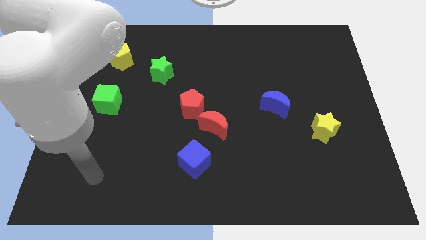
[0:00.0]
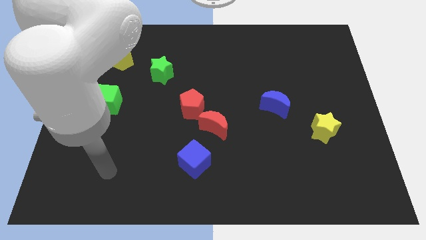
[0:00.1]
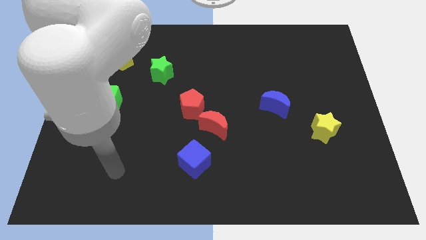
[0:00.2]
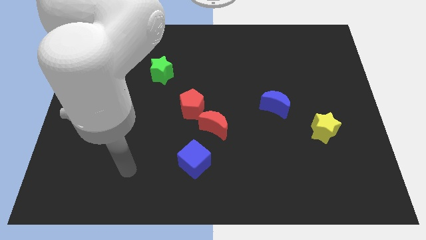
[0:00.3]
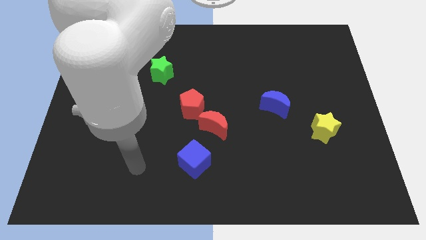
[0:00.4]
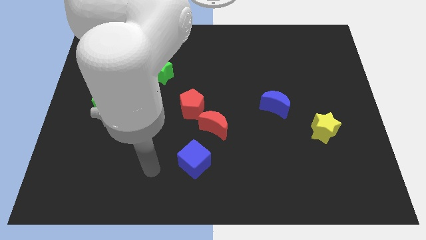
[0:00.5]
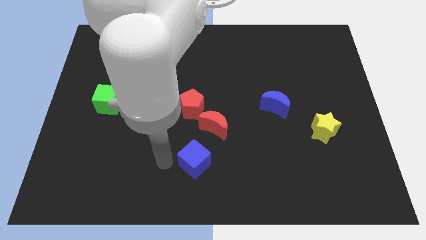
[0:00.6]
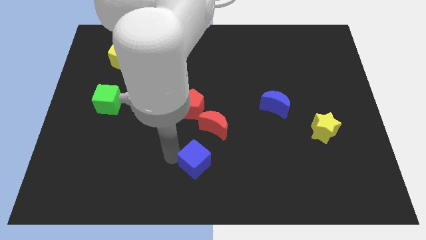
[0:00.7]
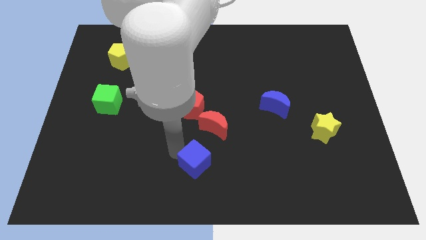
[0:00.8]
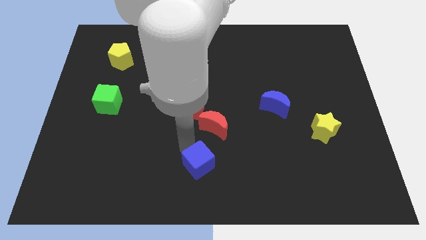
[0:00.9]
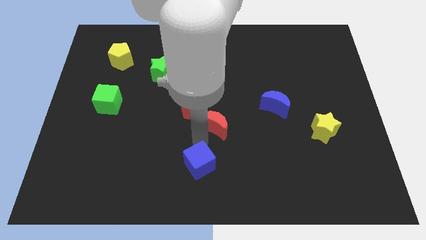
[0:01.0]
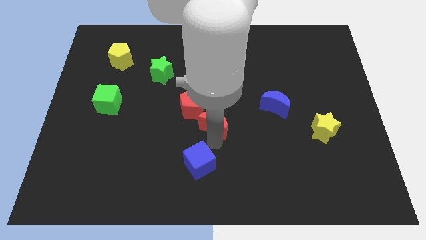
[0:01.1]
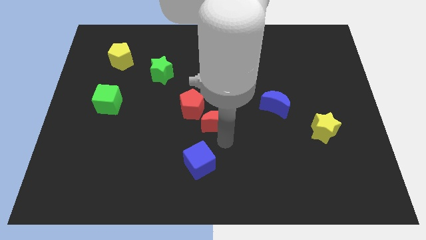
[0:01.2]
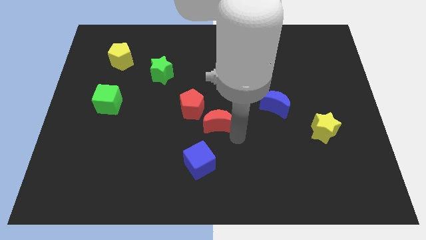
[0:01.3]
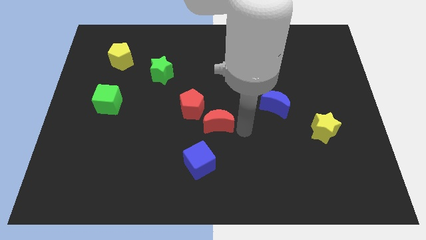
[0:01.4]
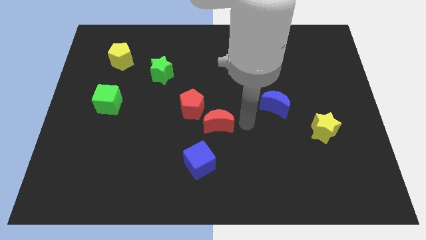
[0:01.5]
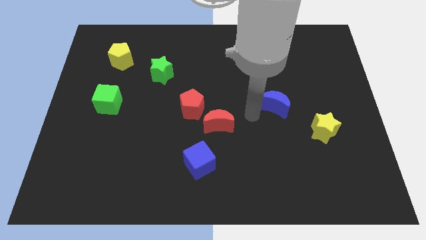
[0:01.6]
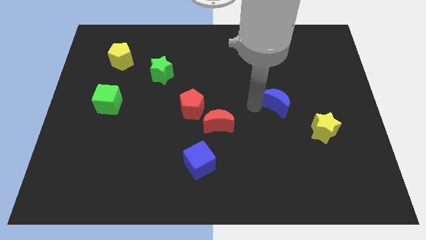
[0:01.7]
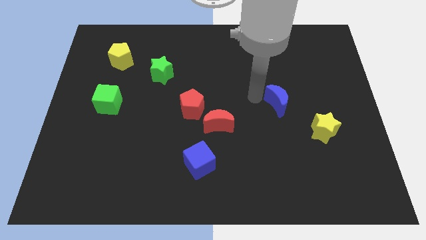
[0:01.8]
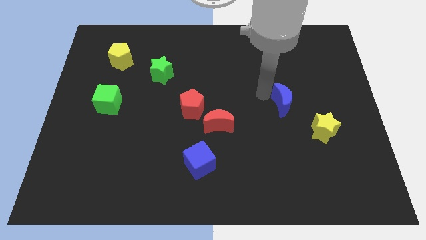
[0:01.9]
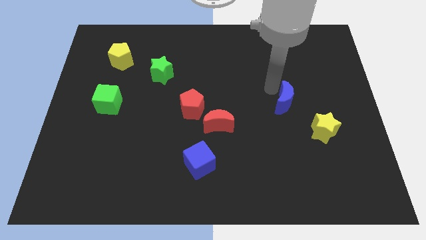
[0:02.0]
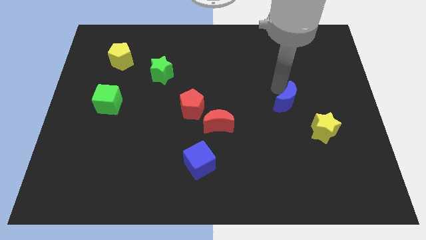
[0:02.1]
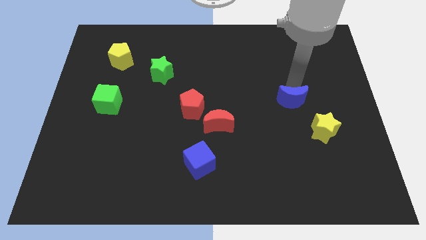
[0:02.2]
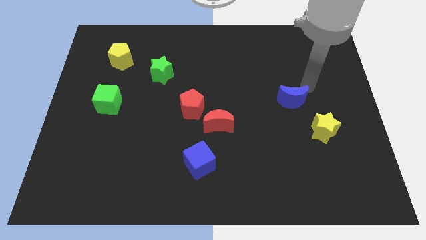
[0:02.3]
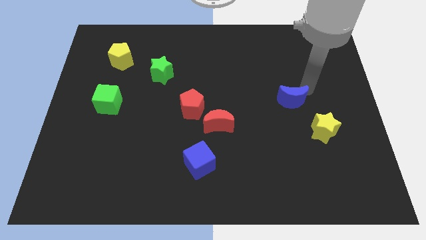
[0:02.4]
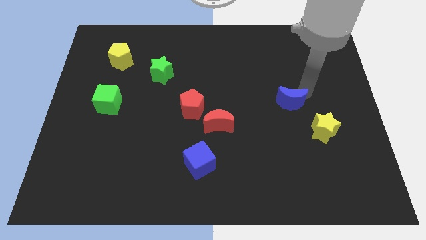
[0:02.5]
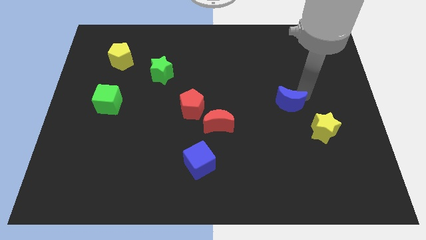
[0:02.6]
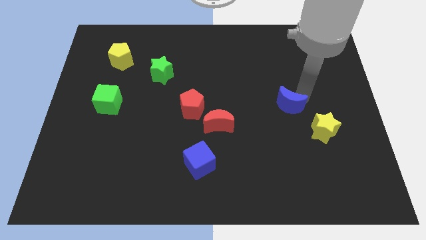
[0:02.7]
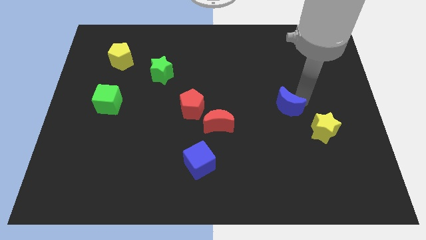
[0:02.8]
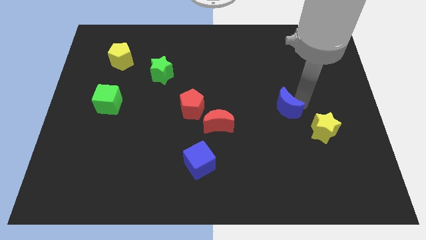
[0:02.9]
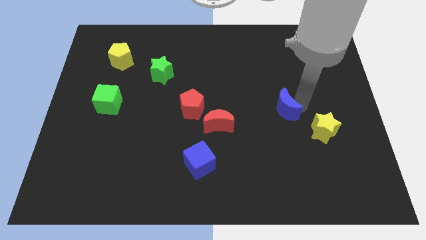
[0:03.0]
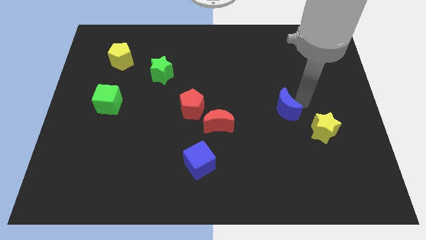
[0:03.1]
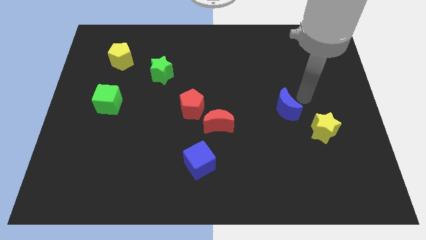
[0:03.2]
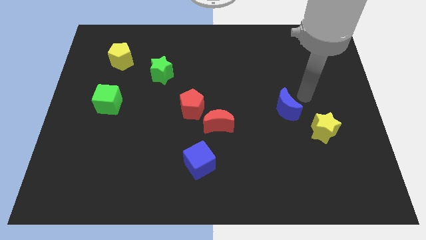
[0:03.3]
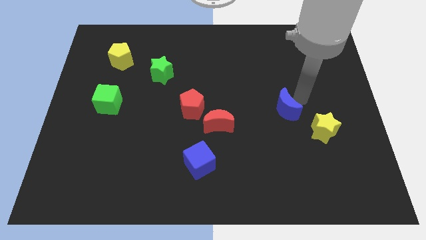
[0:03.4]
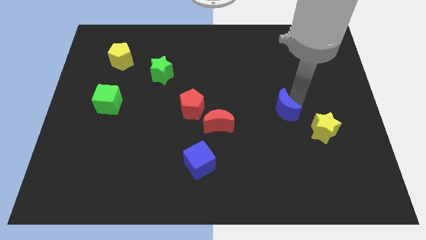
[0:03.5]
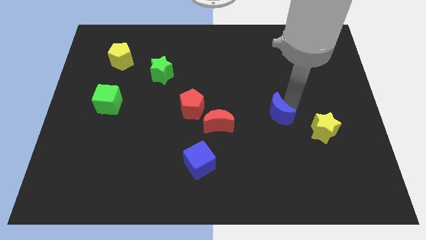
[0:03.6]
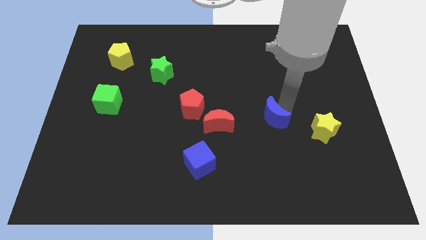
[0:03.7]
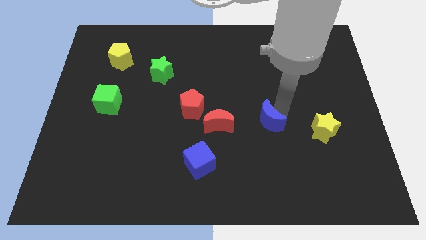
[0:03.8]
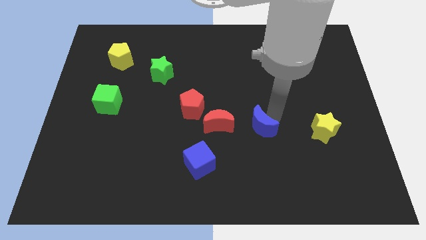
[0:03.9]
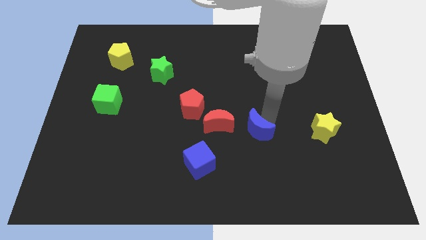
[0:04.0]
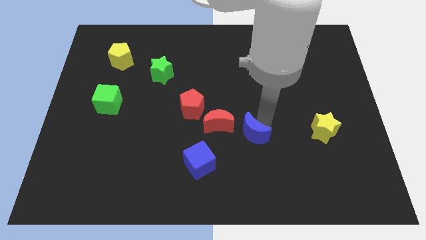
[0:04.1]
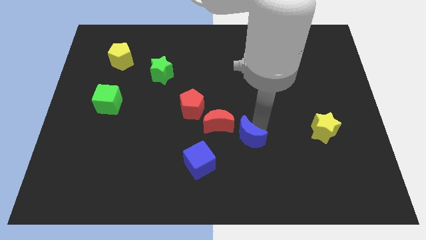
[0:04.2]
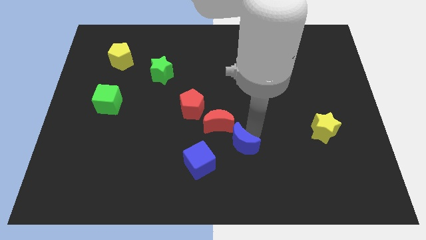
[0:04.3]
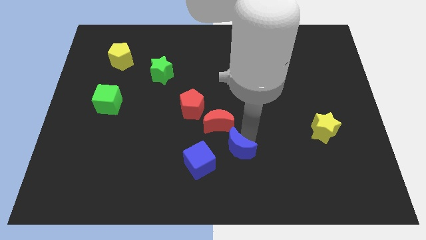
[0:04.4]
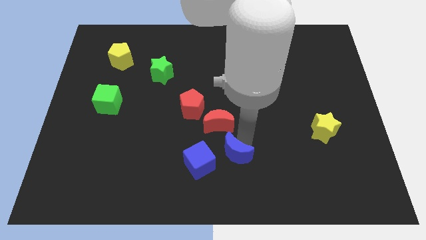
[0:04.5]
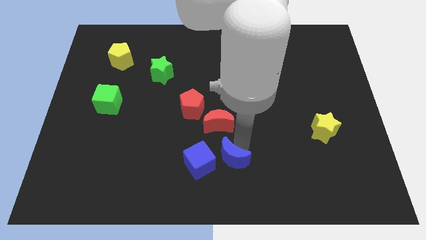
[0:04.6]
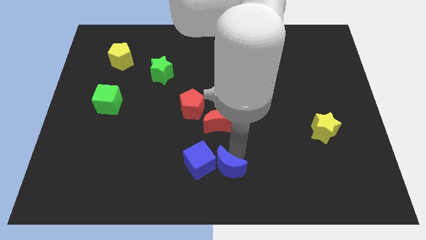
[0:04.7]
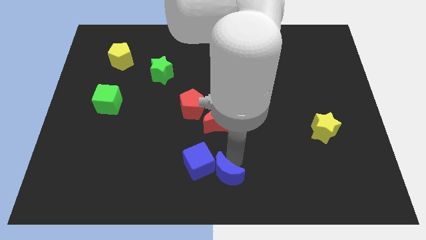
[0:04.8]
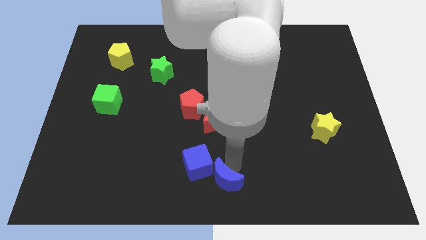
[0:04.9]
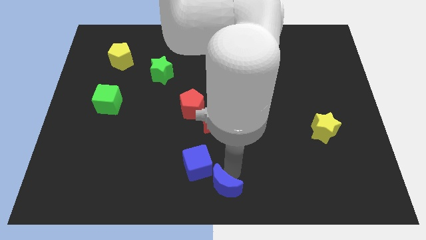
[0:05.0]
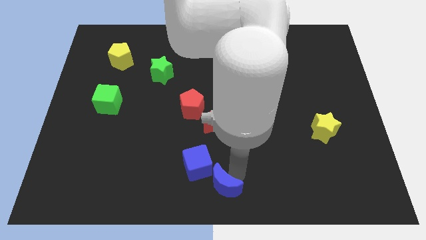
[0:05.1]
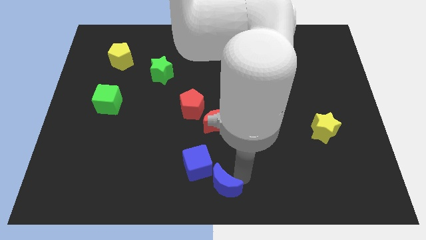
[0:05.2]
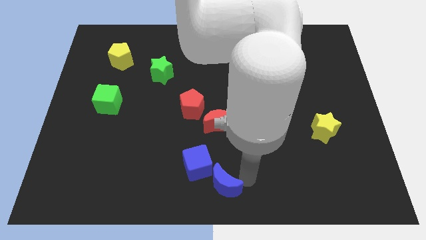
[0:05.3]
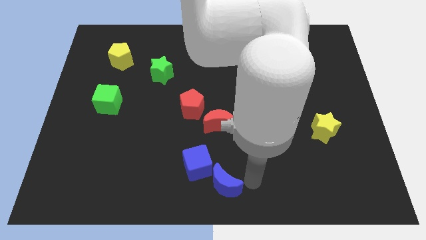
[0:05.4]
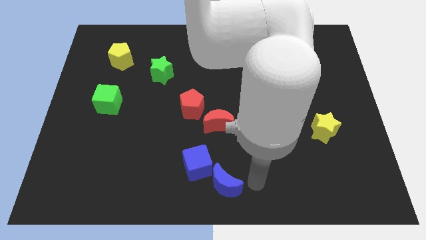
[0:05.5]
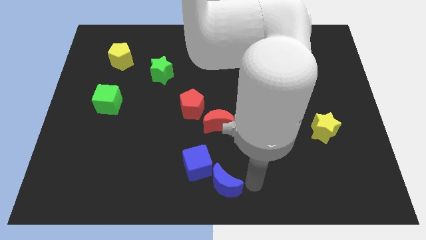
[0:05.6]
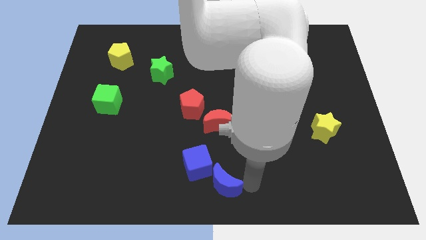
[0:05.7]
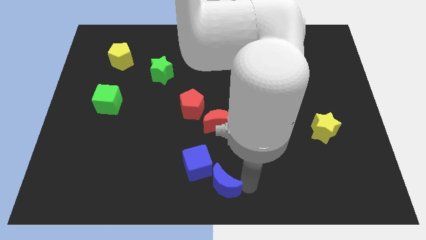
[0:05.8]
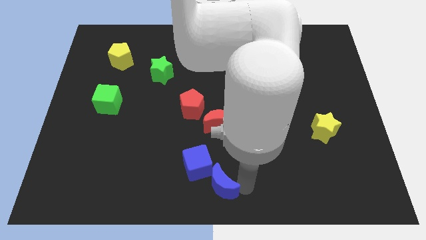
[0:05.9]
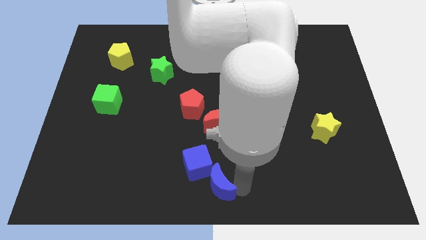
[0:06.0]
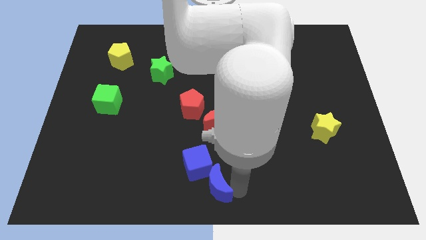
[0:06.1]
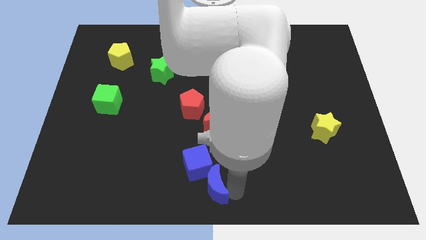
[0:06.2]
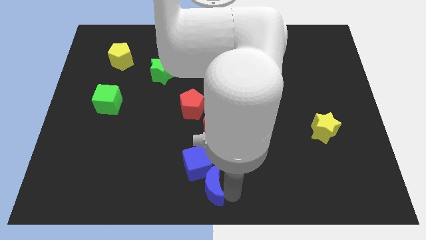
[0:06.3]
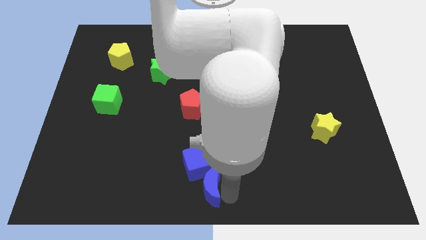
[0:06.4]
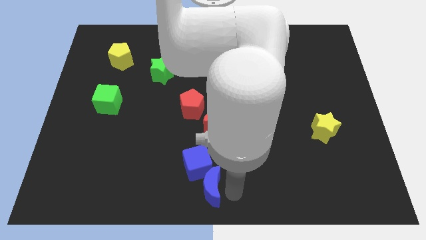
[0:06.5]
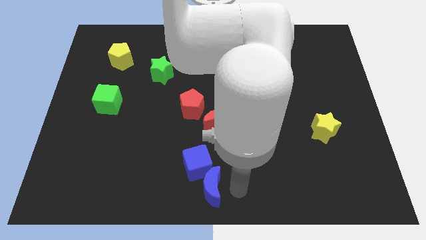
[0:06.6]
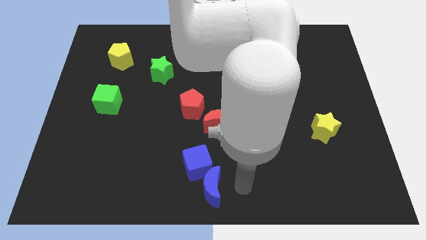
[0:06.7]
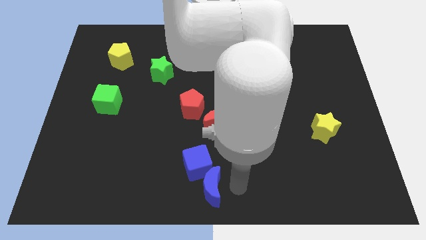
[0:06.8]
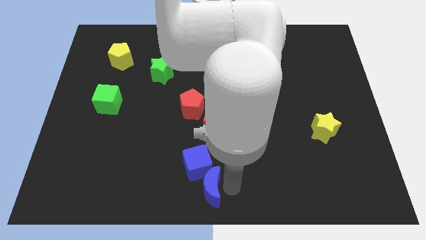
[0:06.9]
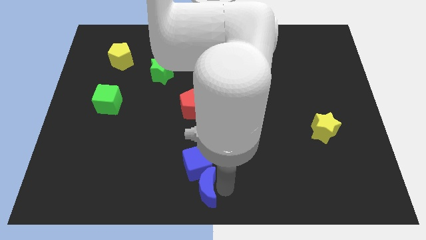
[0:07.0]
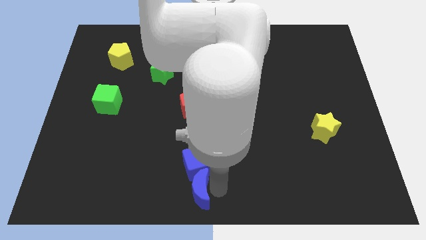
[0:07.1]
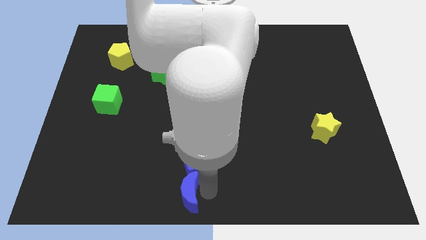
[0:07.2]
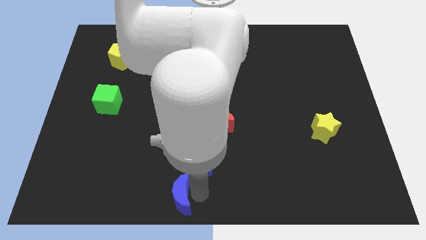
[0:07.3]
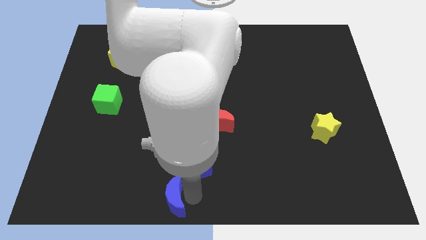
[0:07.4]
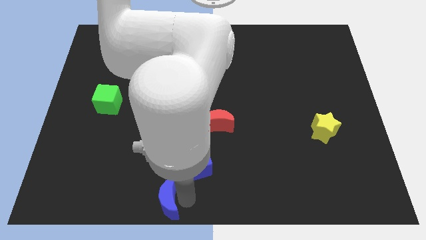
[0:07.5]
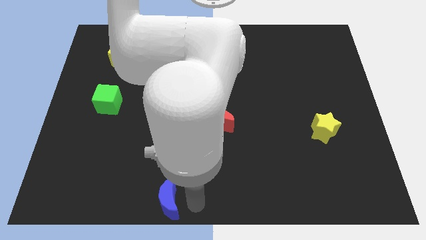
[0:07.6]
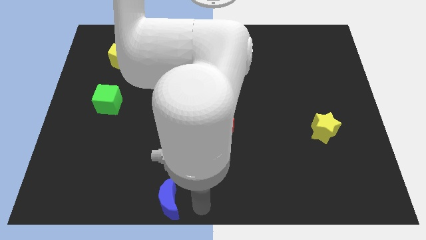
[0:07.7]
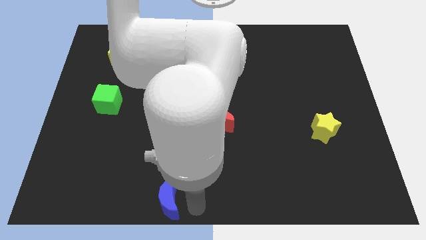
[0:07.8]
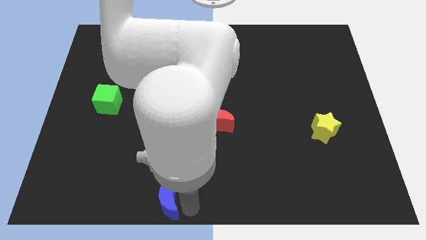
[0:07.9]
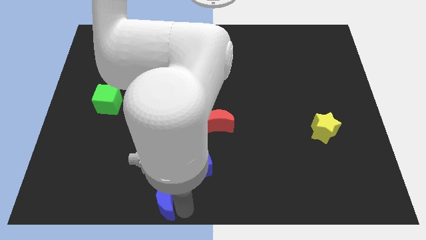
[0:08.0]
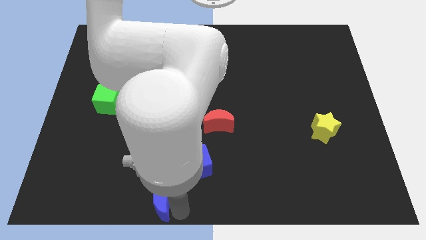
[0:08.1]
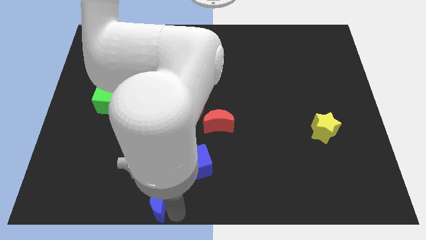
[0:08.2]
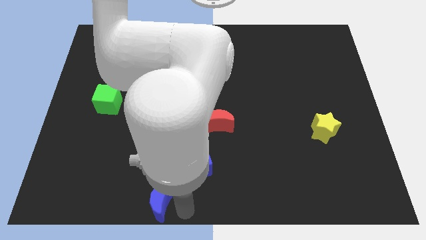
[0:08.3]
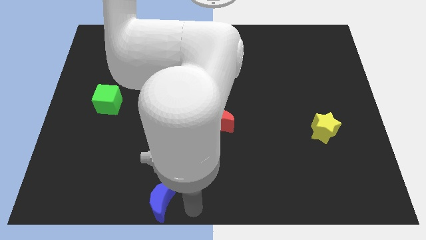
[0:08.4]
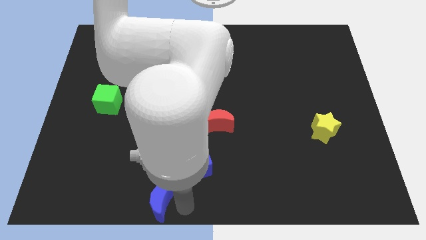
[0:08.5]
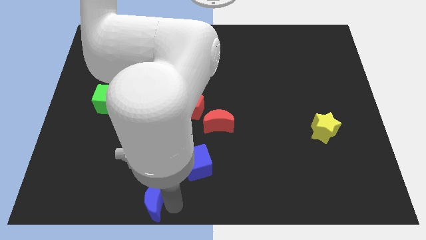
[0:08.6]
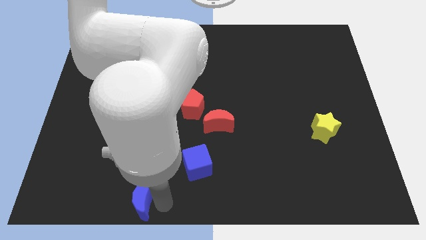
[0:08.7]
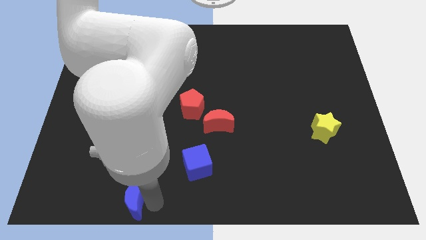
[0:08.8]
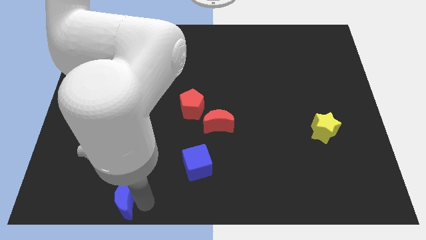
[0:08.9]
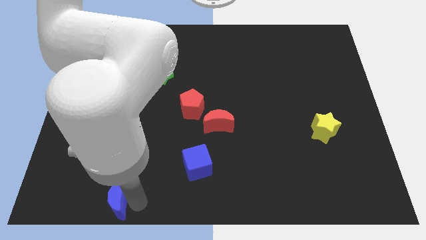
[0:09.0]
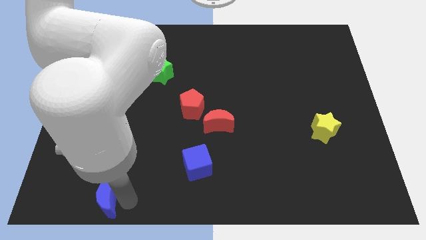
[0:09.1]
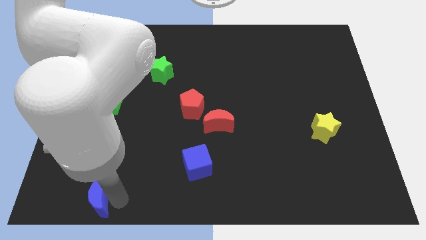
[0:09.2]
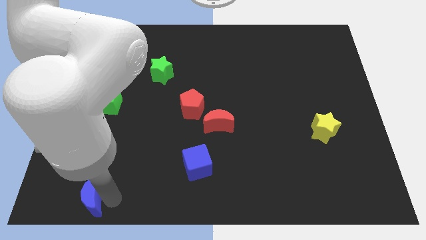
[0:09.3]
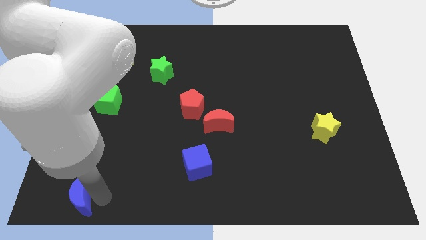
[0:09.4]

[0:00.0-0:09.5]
push the blue moon to the bottom left of the board
